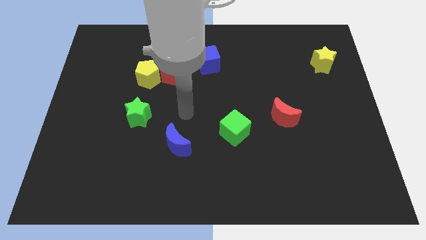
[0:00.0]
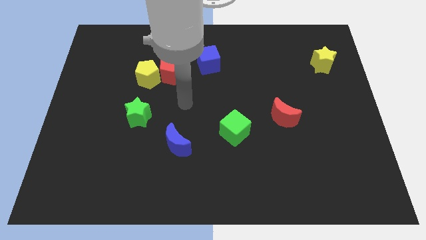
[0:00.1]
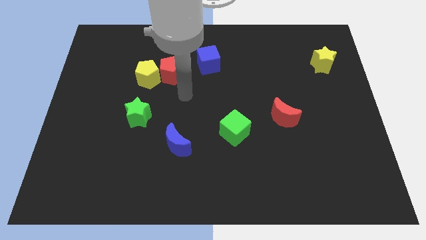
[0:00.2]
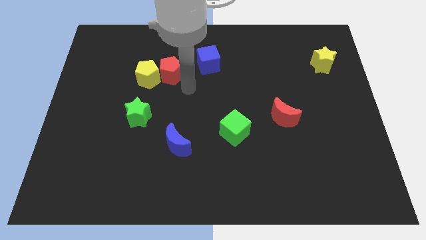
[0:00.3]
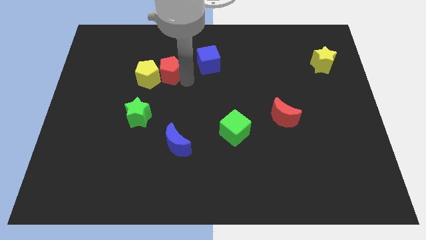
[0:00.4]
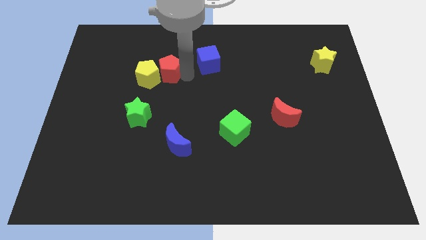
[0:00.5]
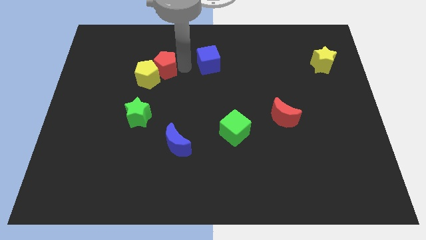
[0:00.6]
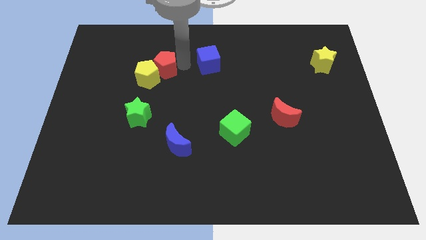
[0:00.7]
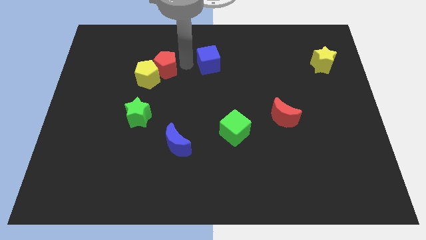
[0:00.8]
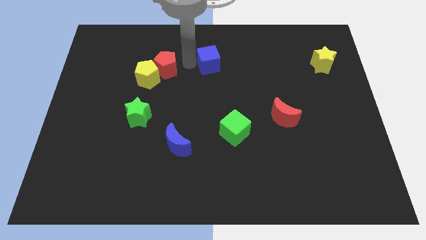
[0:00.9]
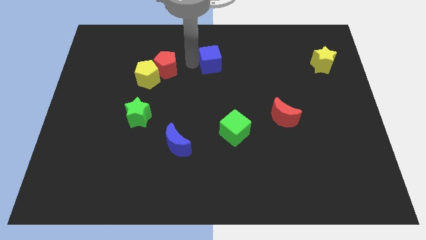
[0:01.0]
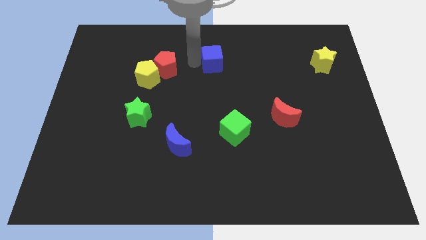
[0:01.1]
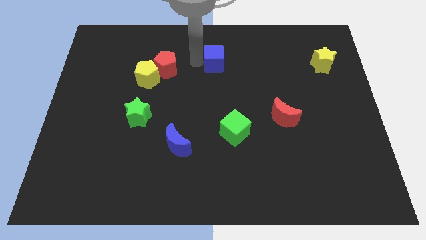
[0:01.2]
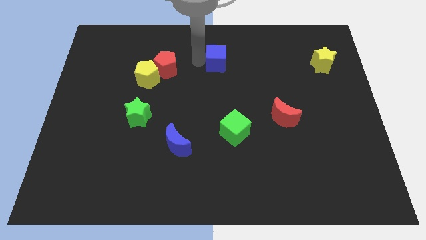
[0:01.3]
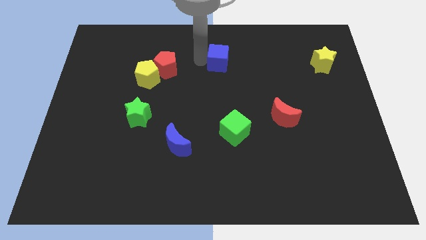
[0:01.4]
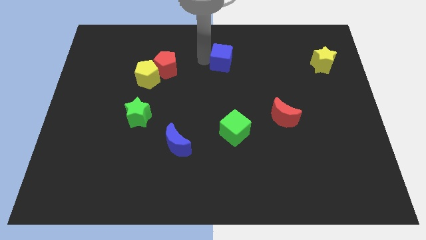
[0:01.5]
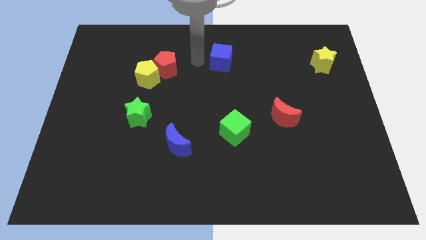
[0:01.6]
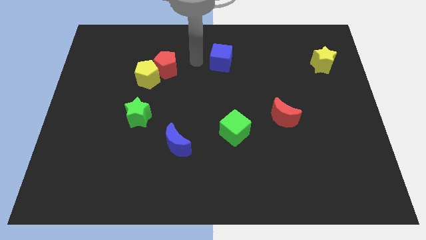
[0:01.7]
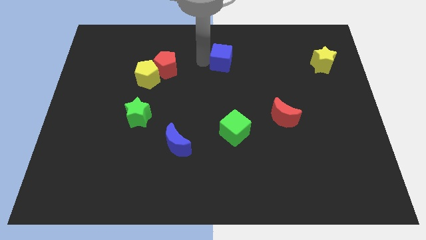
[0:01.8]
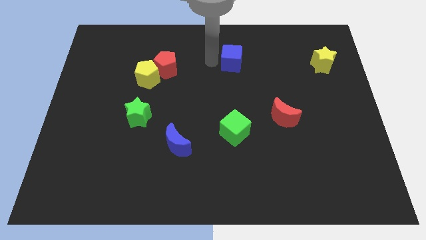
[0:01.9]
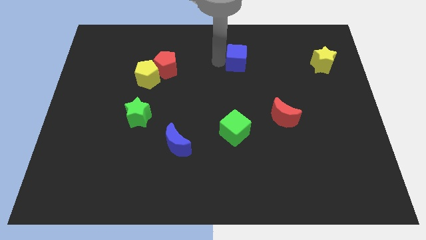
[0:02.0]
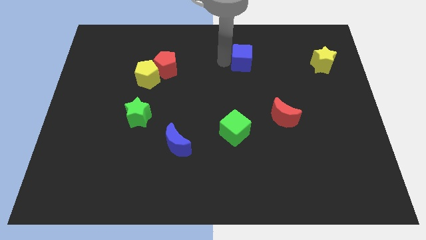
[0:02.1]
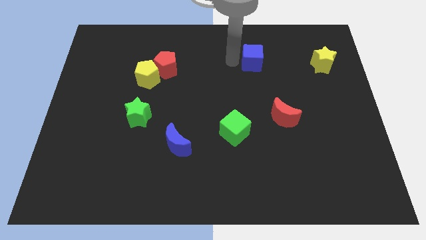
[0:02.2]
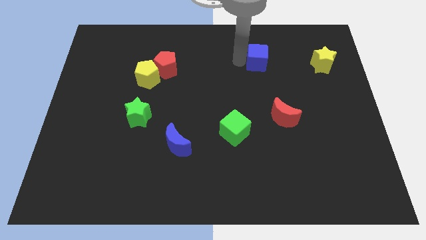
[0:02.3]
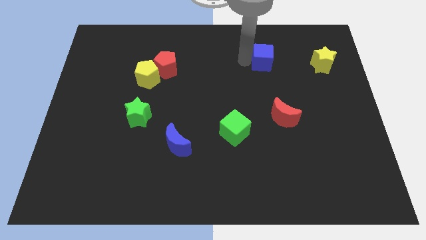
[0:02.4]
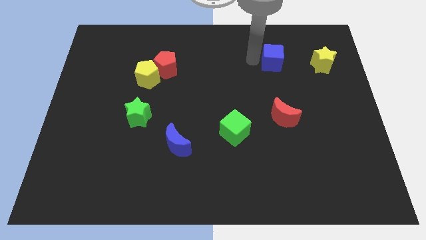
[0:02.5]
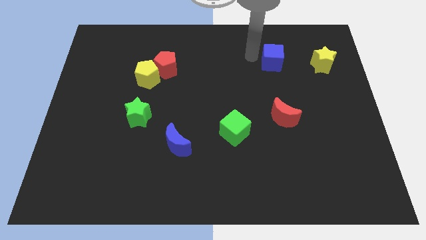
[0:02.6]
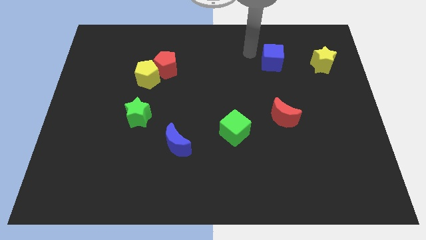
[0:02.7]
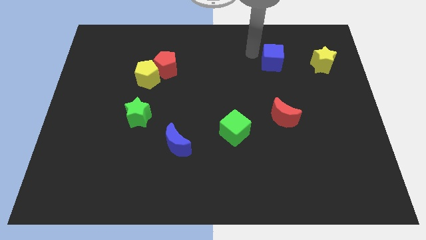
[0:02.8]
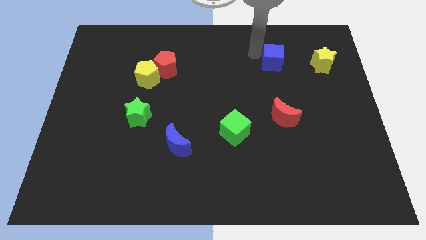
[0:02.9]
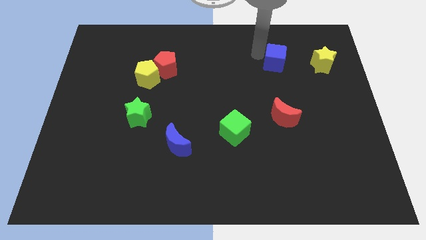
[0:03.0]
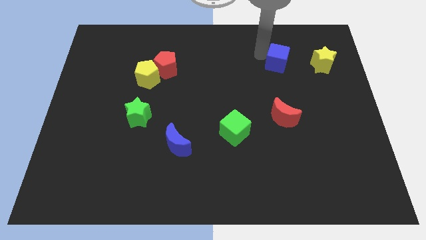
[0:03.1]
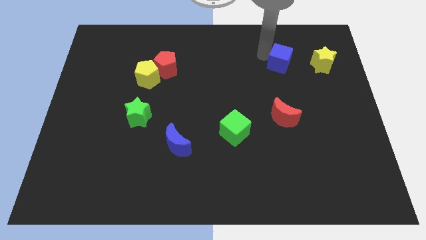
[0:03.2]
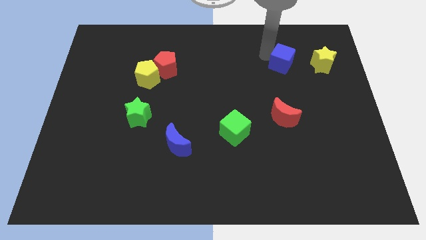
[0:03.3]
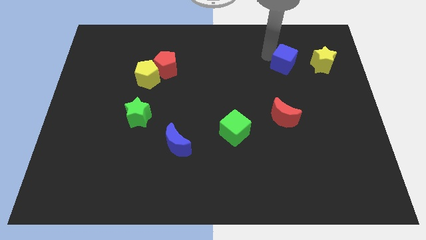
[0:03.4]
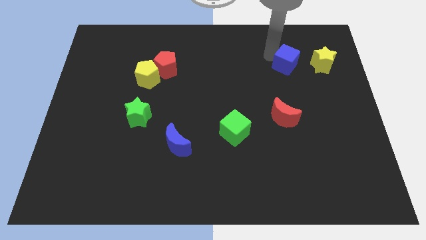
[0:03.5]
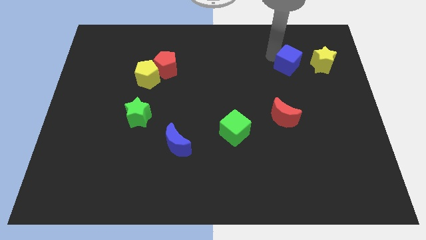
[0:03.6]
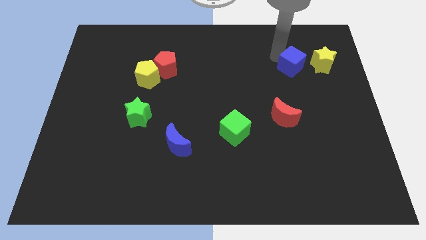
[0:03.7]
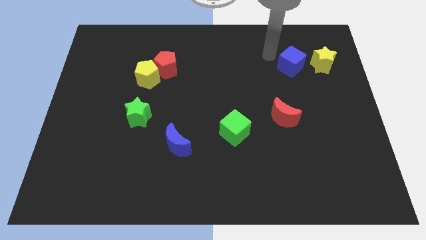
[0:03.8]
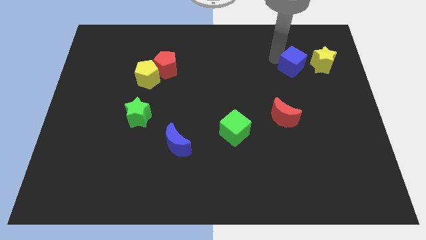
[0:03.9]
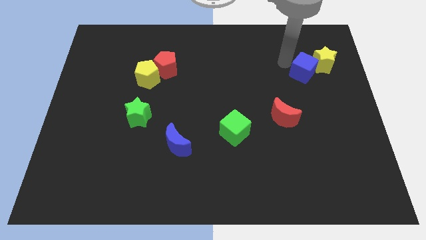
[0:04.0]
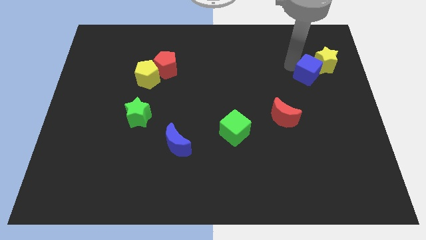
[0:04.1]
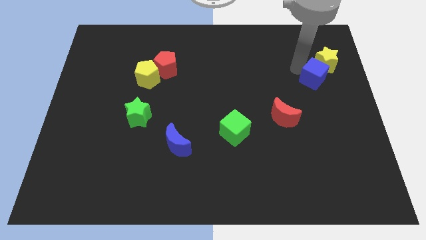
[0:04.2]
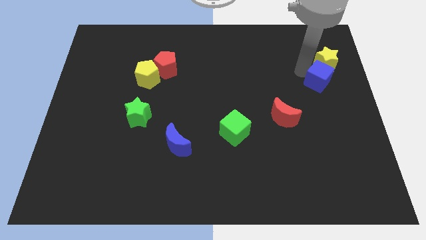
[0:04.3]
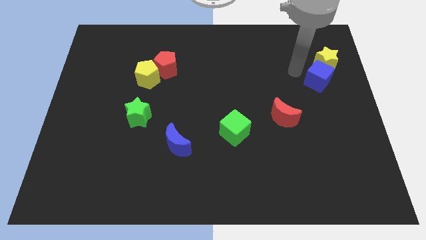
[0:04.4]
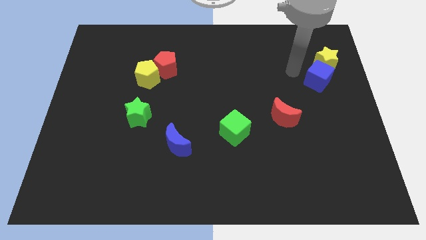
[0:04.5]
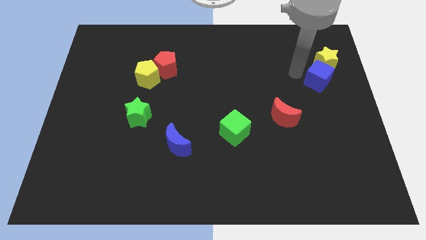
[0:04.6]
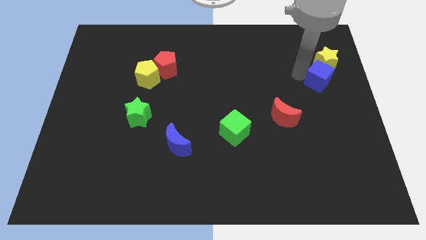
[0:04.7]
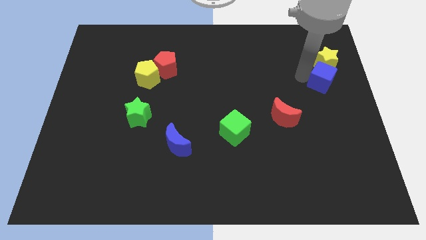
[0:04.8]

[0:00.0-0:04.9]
slide the blue cube to the center right
